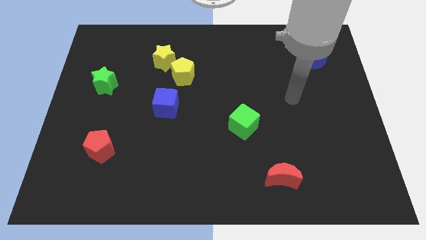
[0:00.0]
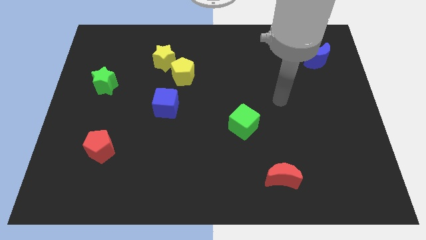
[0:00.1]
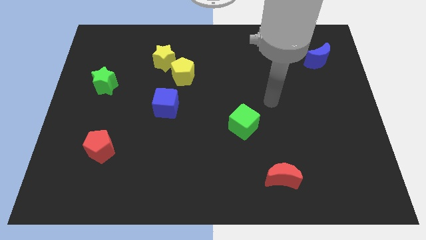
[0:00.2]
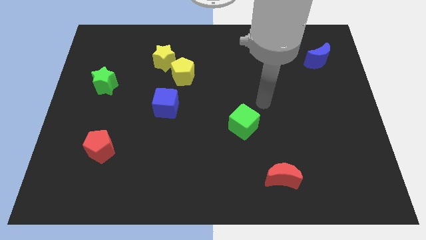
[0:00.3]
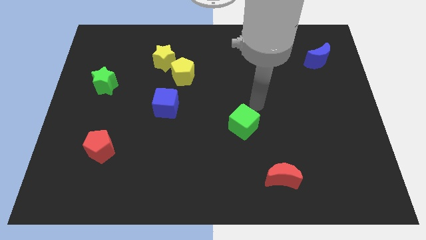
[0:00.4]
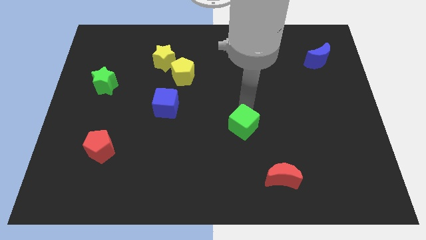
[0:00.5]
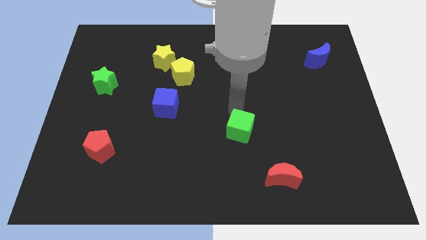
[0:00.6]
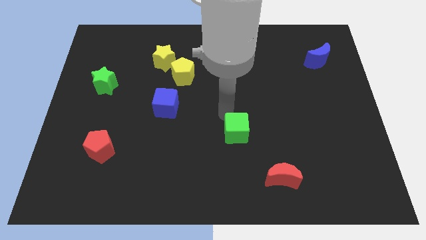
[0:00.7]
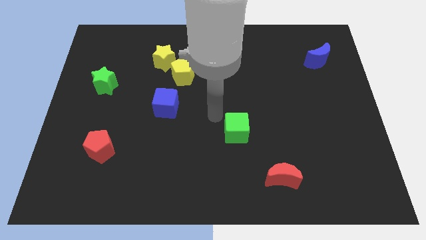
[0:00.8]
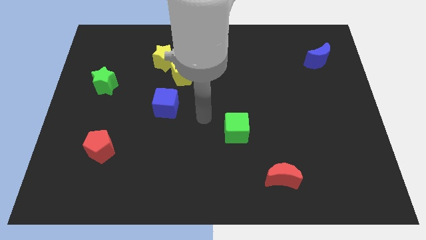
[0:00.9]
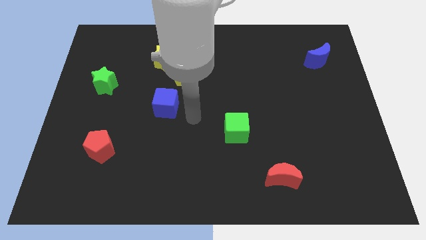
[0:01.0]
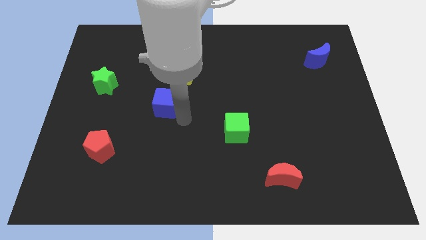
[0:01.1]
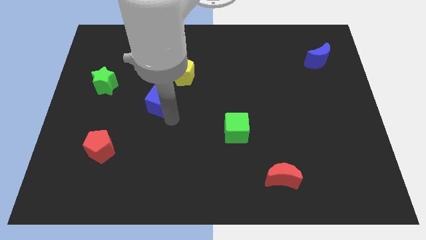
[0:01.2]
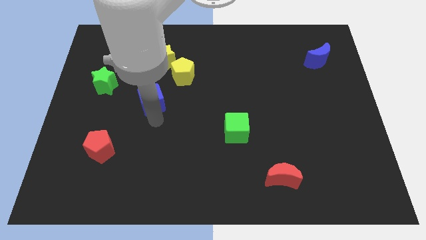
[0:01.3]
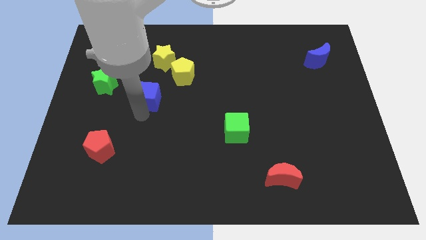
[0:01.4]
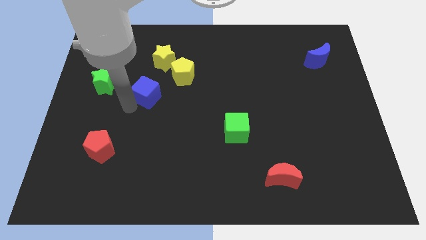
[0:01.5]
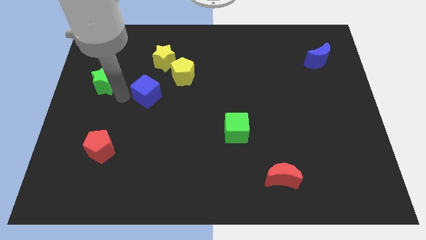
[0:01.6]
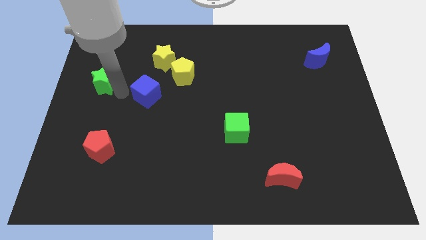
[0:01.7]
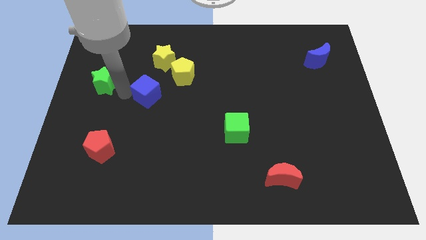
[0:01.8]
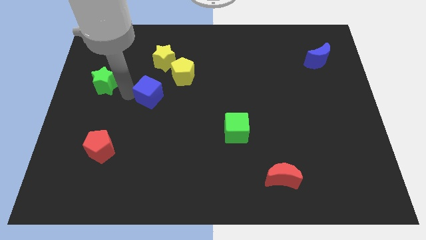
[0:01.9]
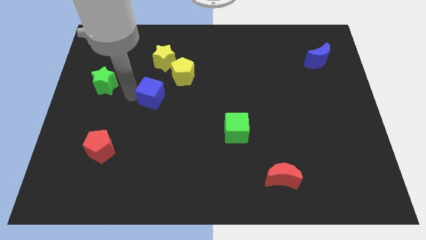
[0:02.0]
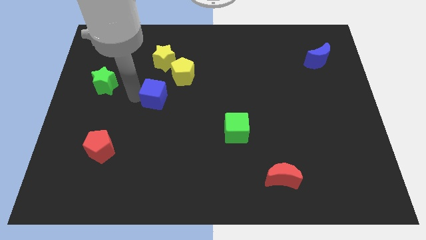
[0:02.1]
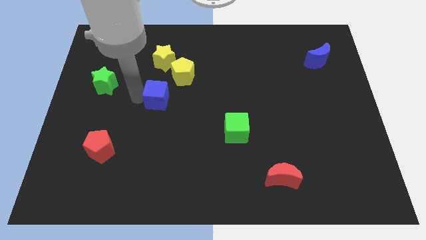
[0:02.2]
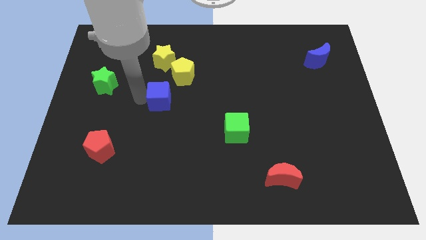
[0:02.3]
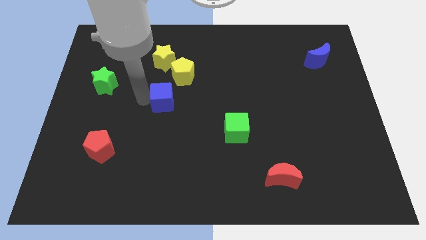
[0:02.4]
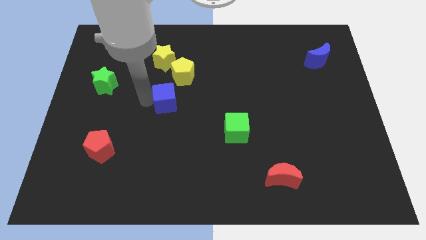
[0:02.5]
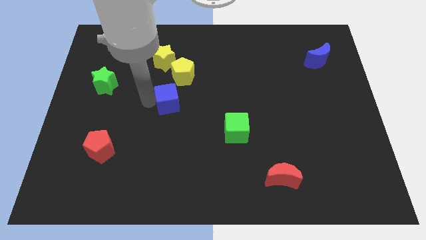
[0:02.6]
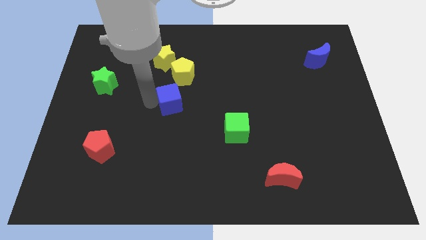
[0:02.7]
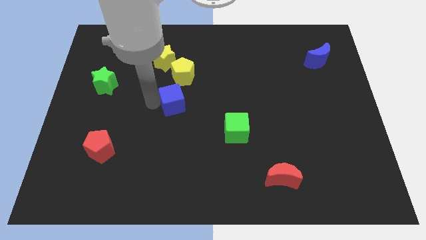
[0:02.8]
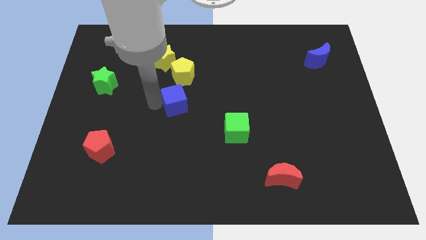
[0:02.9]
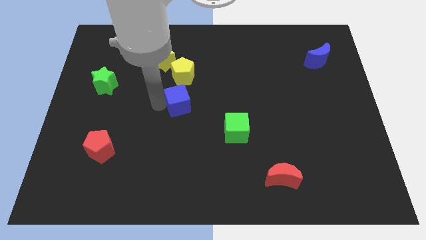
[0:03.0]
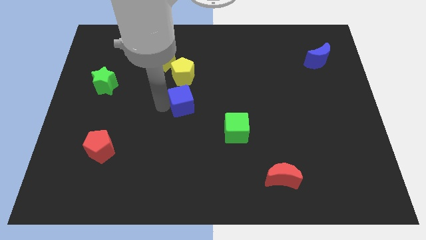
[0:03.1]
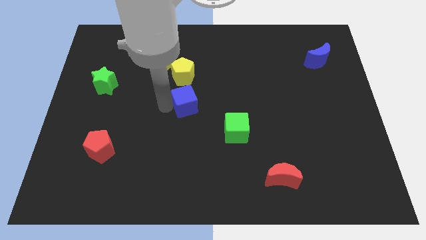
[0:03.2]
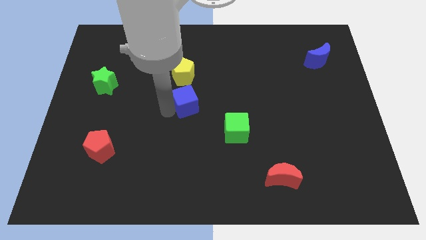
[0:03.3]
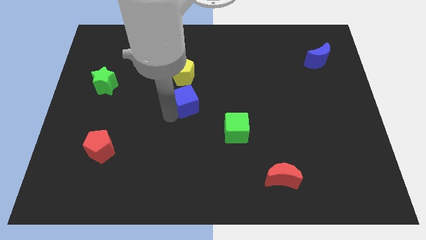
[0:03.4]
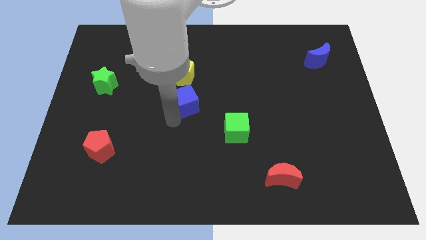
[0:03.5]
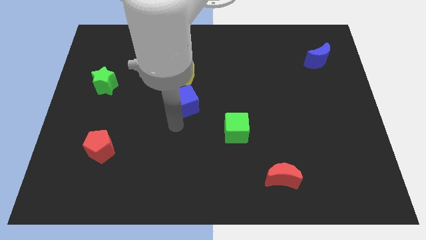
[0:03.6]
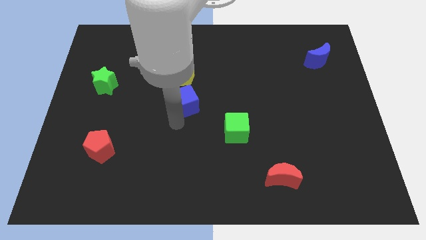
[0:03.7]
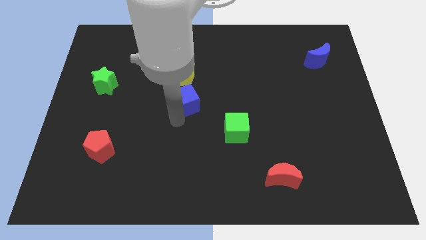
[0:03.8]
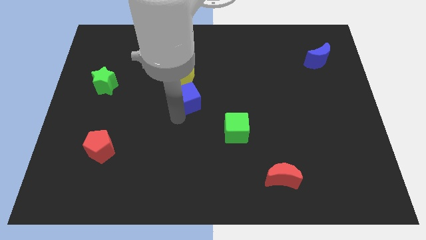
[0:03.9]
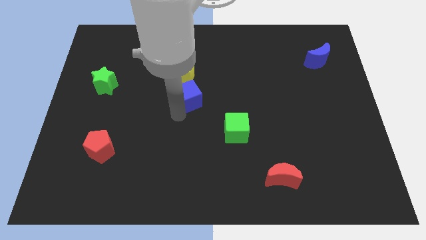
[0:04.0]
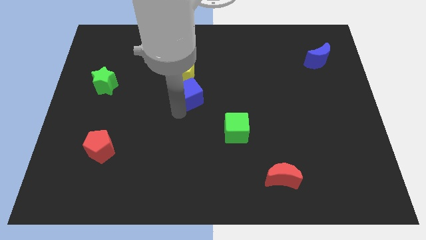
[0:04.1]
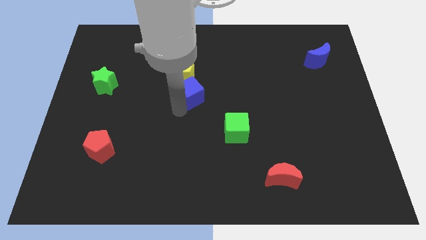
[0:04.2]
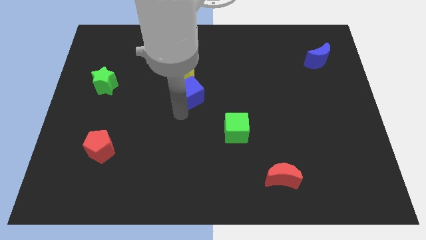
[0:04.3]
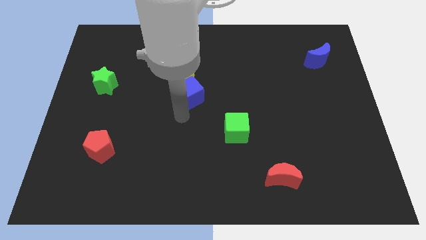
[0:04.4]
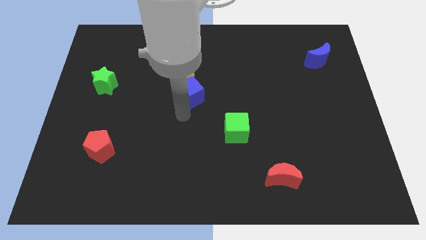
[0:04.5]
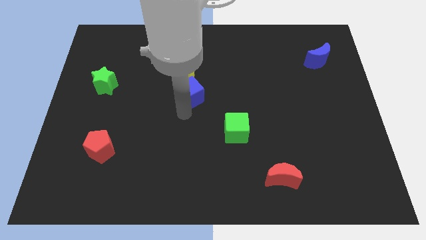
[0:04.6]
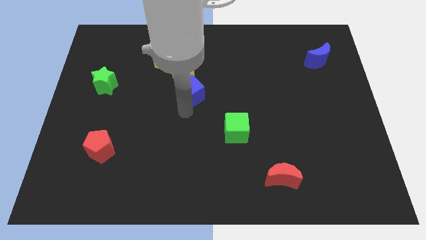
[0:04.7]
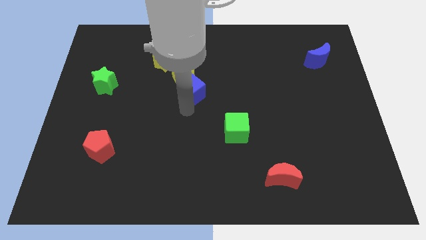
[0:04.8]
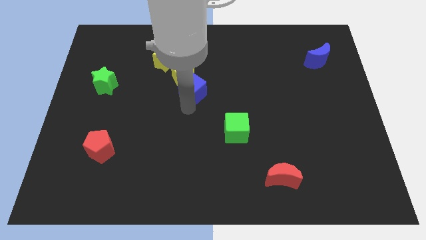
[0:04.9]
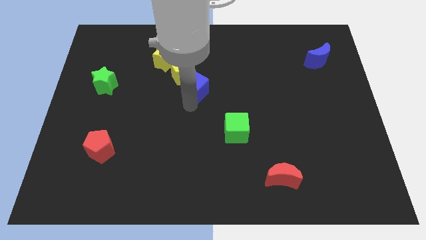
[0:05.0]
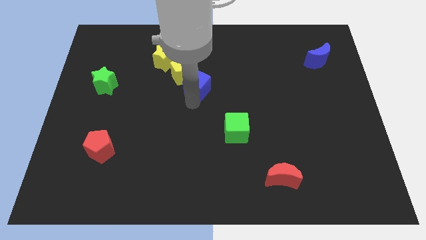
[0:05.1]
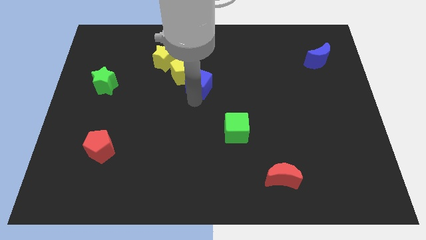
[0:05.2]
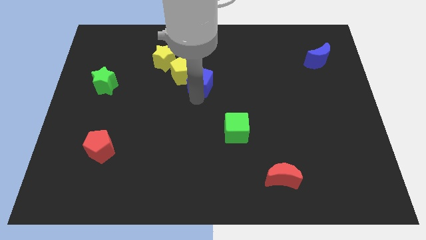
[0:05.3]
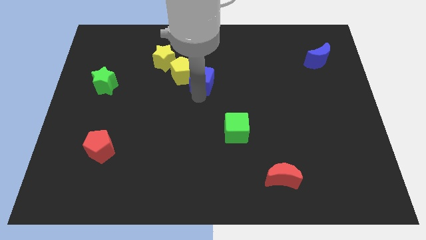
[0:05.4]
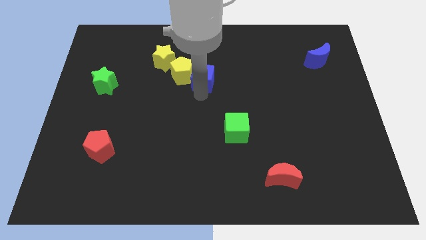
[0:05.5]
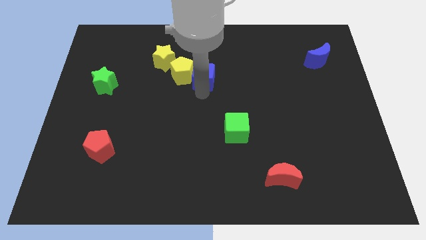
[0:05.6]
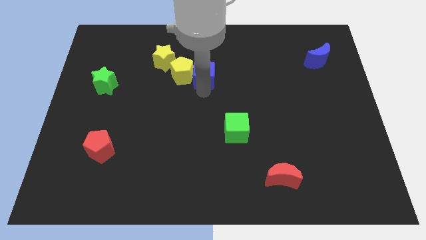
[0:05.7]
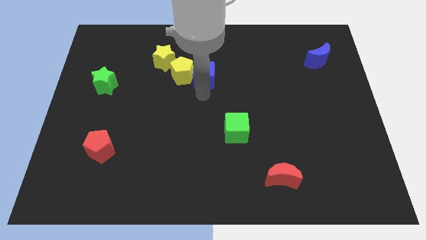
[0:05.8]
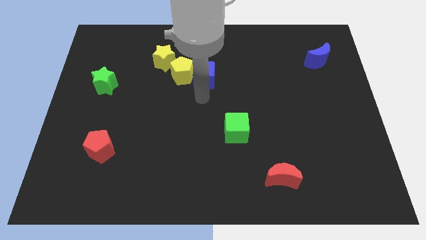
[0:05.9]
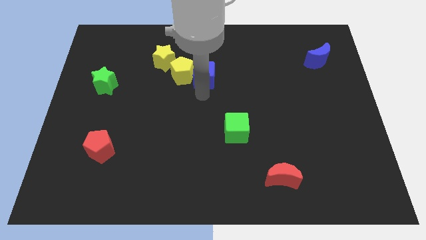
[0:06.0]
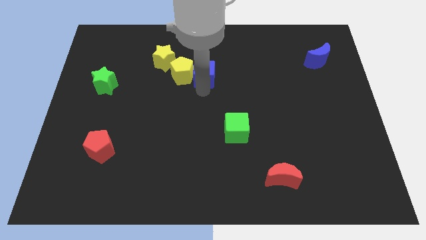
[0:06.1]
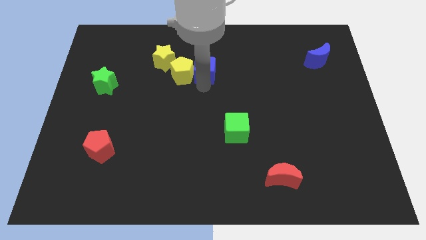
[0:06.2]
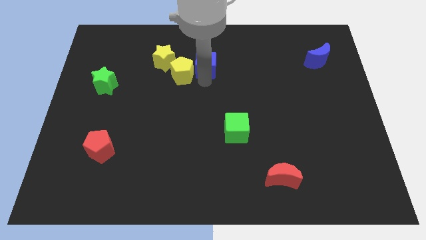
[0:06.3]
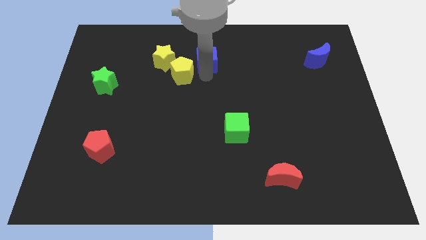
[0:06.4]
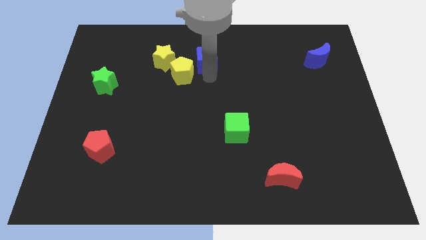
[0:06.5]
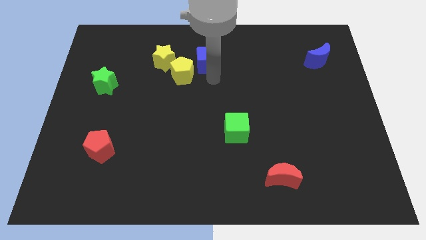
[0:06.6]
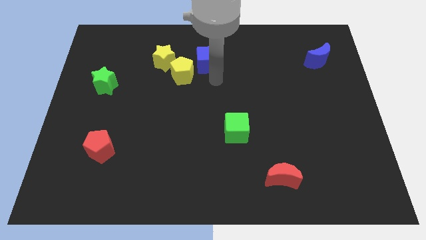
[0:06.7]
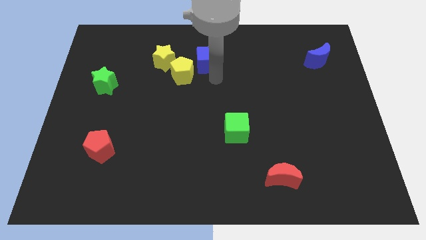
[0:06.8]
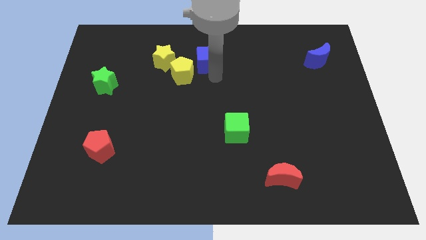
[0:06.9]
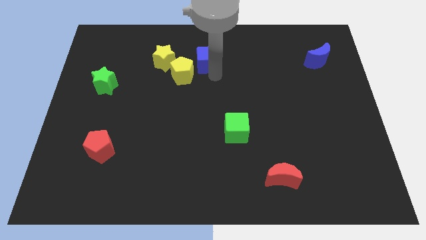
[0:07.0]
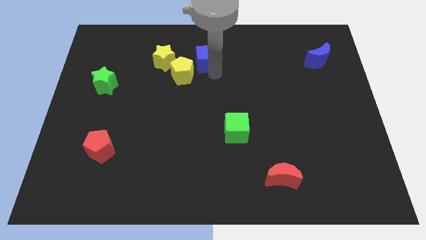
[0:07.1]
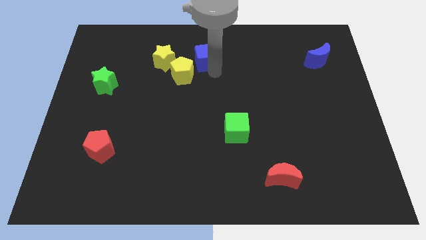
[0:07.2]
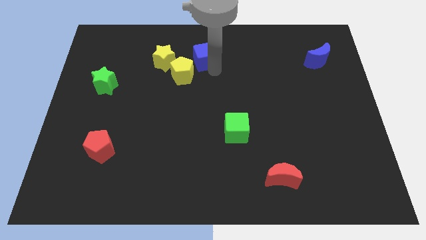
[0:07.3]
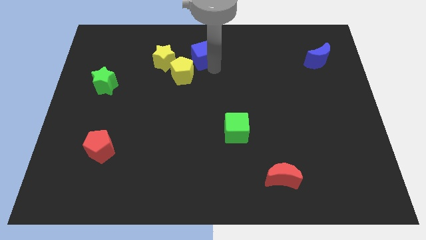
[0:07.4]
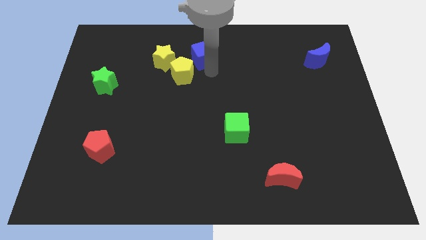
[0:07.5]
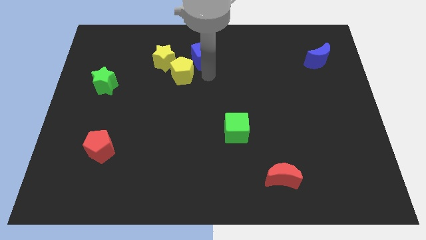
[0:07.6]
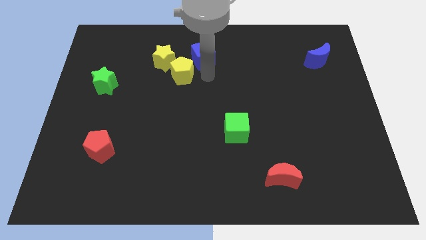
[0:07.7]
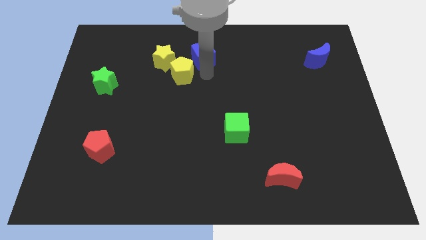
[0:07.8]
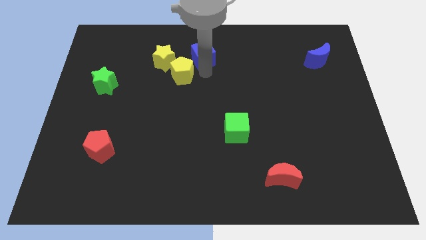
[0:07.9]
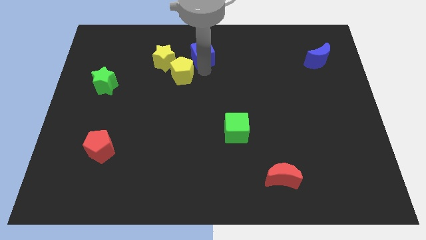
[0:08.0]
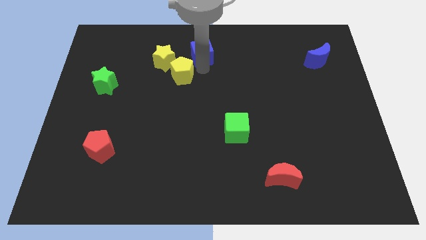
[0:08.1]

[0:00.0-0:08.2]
put the blue cube to the top
